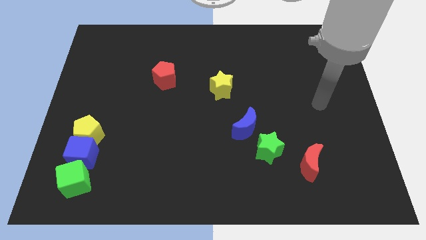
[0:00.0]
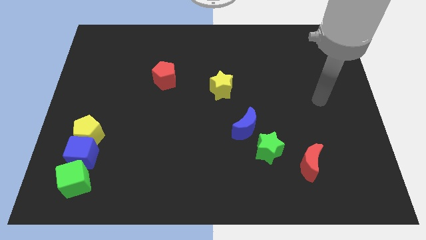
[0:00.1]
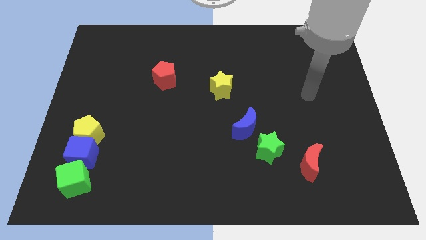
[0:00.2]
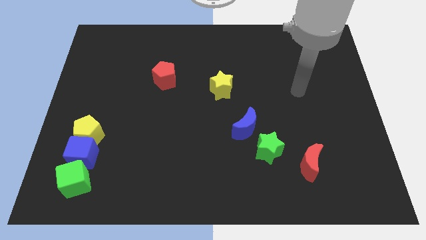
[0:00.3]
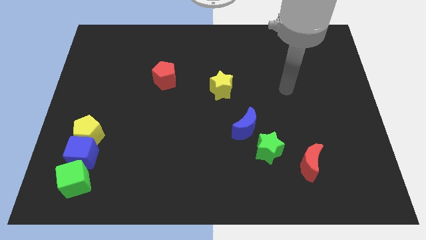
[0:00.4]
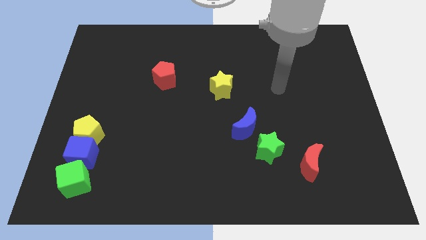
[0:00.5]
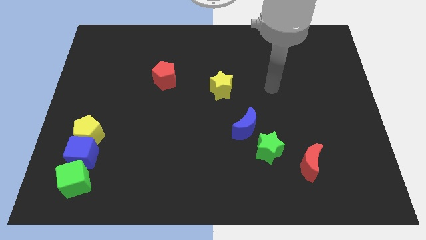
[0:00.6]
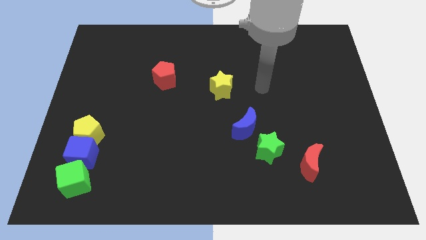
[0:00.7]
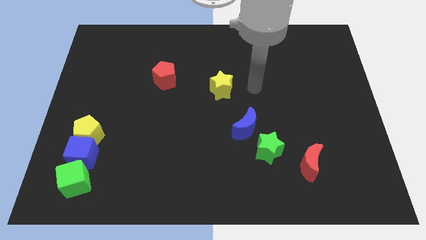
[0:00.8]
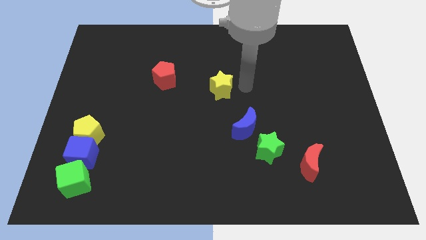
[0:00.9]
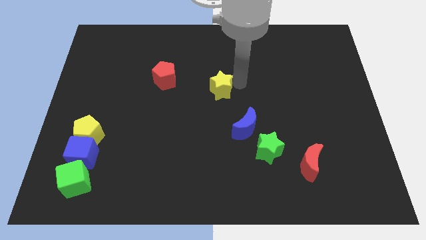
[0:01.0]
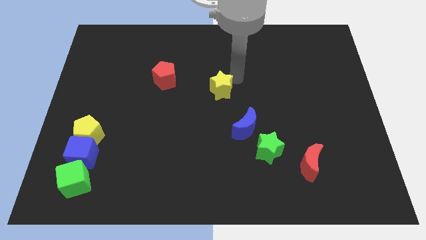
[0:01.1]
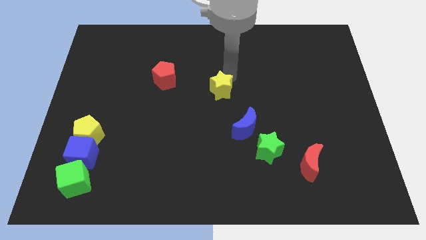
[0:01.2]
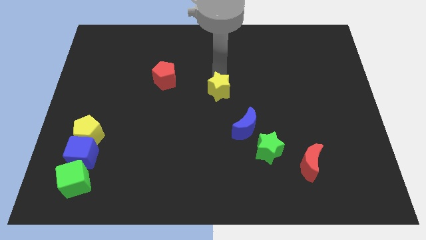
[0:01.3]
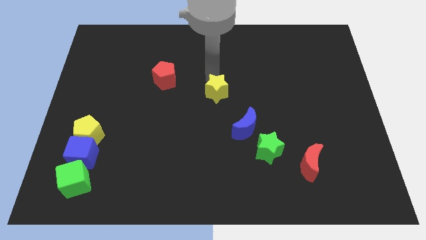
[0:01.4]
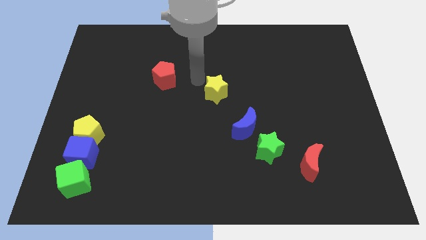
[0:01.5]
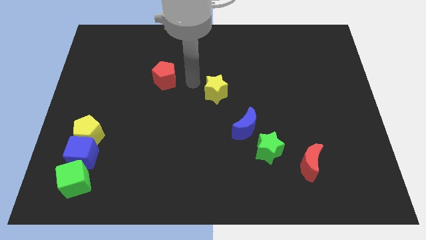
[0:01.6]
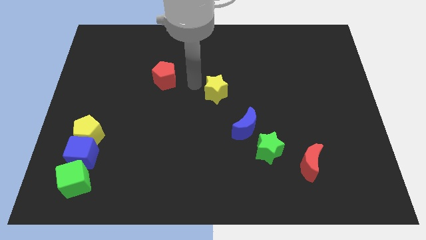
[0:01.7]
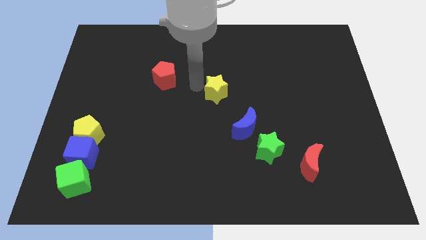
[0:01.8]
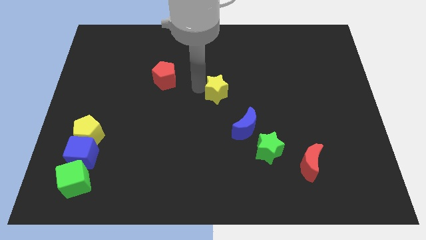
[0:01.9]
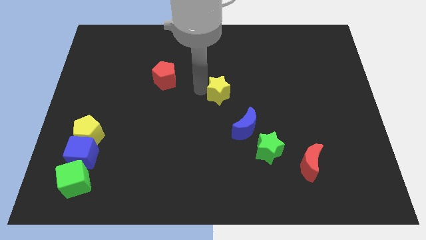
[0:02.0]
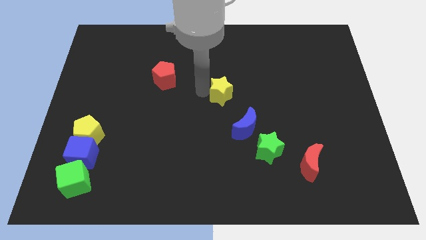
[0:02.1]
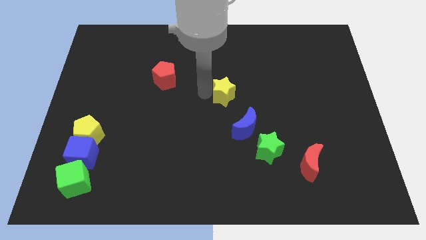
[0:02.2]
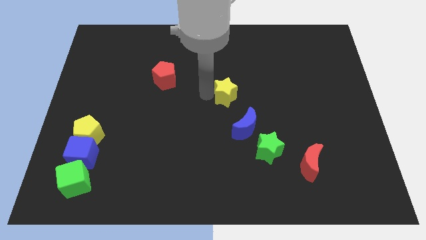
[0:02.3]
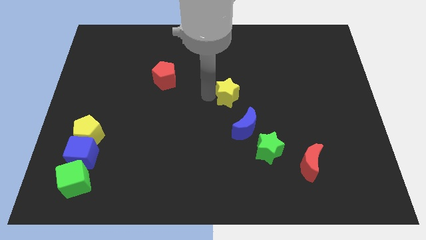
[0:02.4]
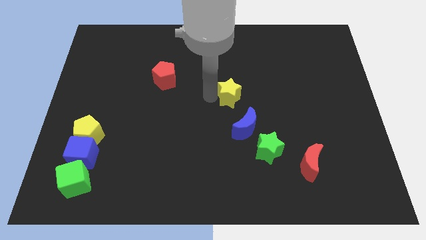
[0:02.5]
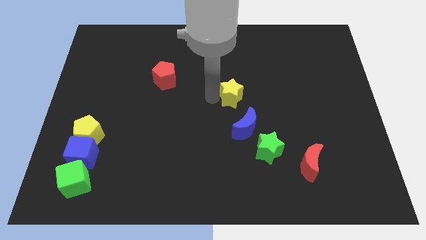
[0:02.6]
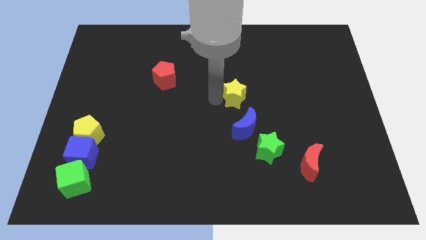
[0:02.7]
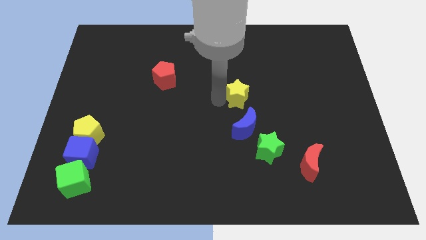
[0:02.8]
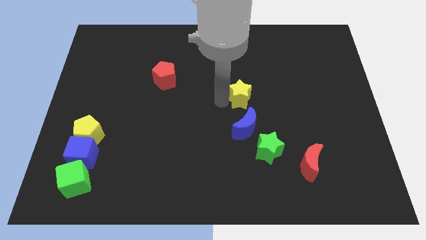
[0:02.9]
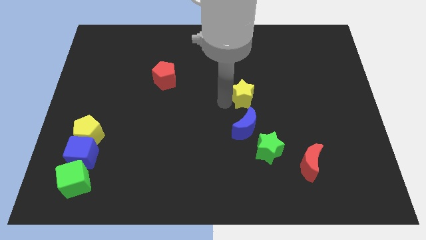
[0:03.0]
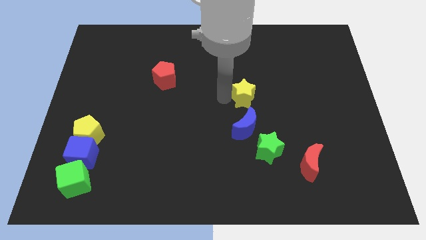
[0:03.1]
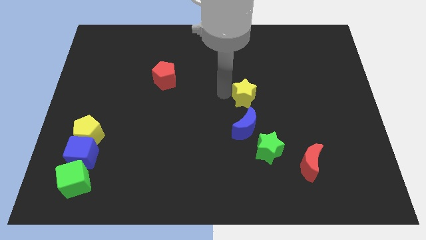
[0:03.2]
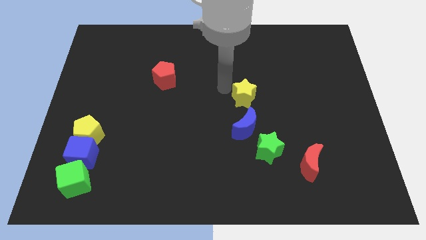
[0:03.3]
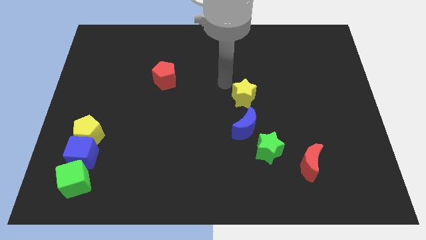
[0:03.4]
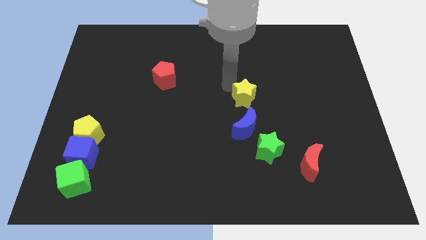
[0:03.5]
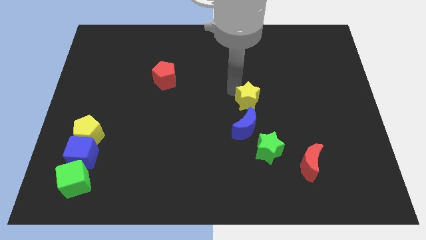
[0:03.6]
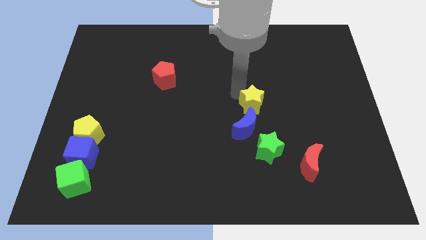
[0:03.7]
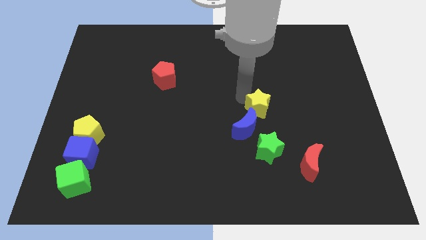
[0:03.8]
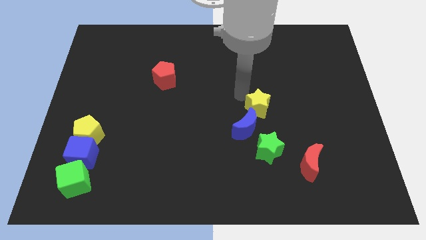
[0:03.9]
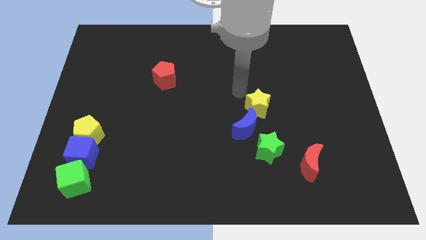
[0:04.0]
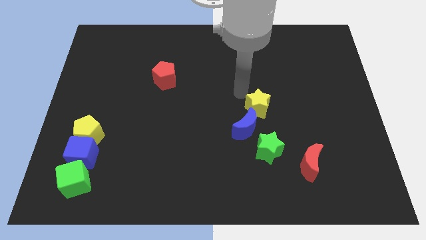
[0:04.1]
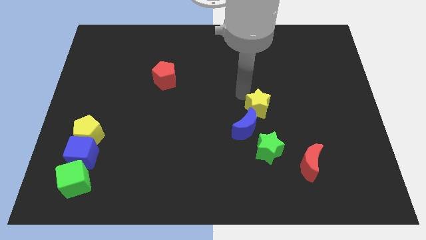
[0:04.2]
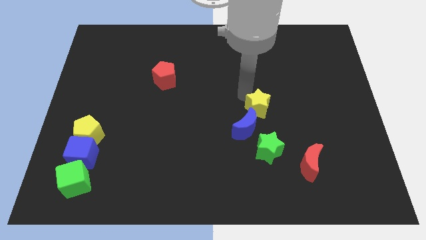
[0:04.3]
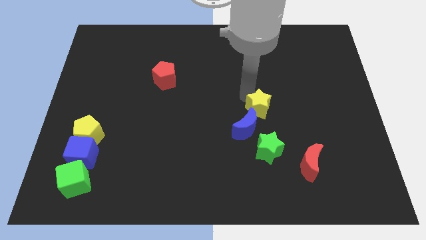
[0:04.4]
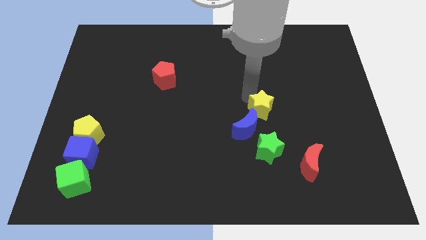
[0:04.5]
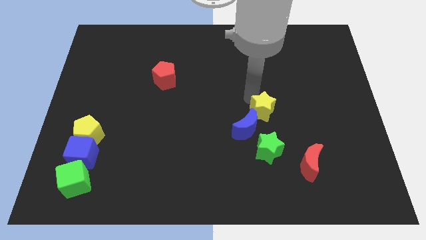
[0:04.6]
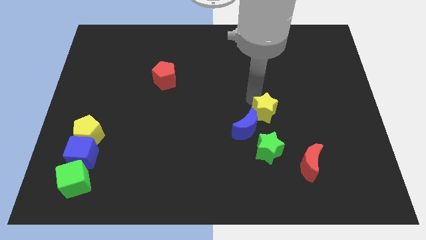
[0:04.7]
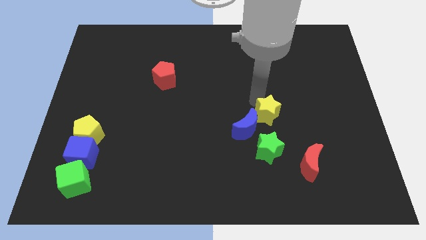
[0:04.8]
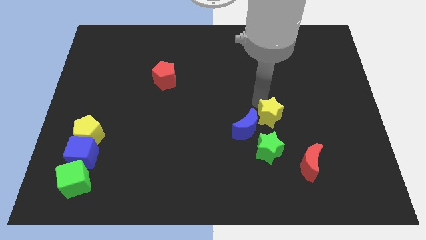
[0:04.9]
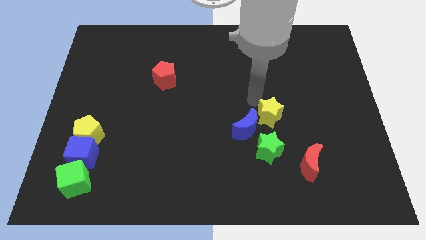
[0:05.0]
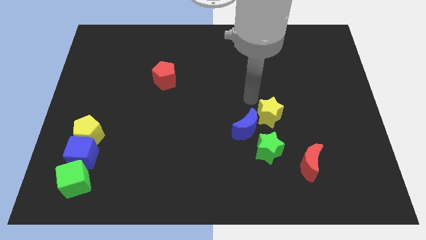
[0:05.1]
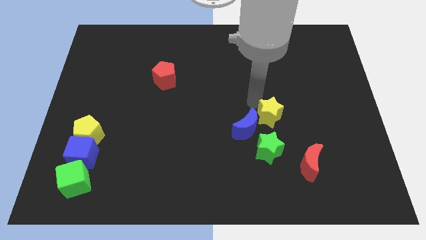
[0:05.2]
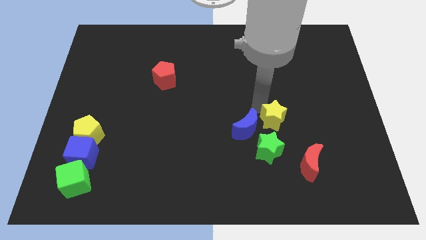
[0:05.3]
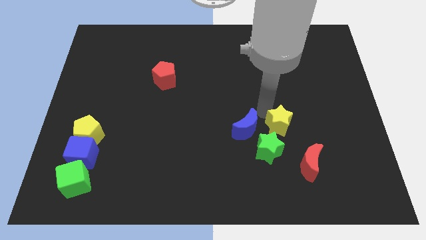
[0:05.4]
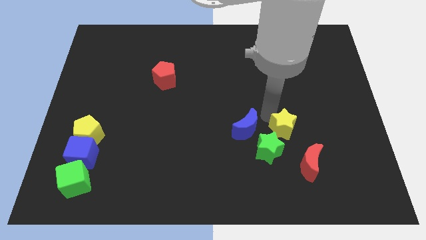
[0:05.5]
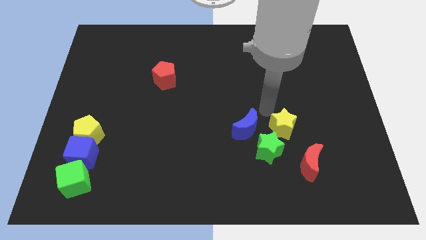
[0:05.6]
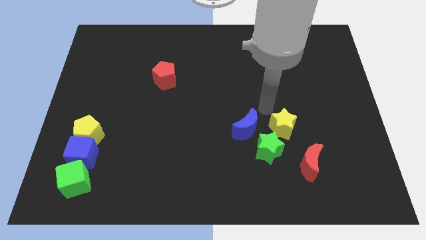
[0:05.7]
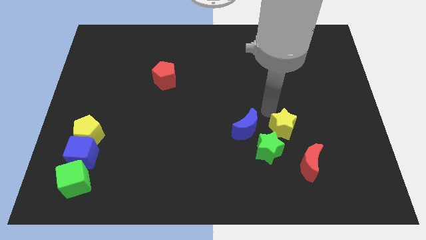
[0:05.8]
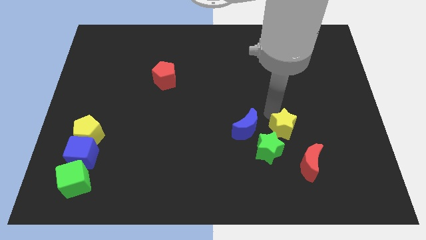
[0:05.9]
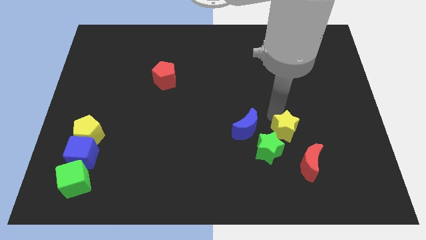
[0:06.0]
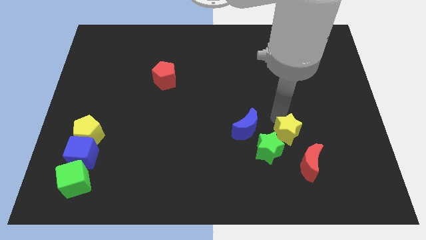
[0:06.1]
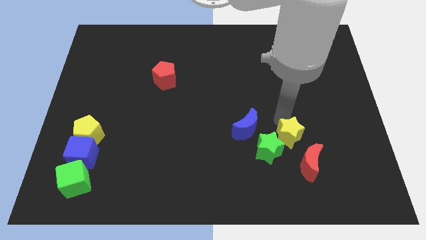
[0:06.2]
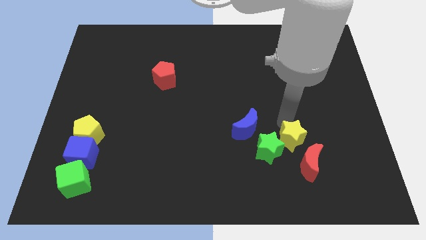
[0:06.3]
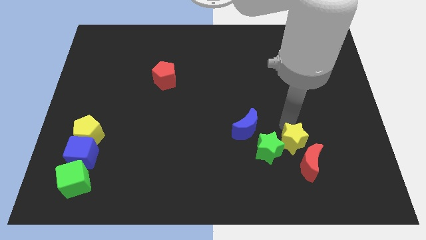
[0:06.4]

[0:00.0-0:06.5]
slide the yellow star to the red moon

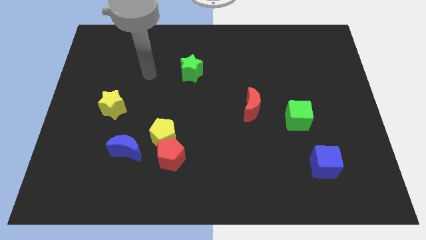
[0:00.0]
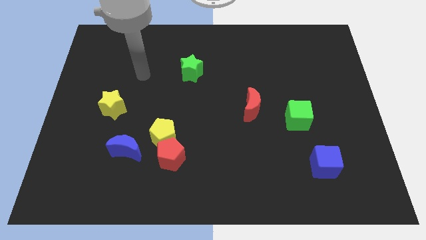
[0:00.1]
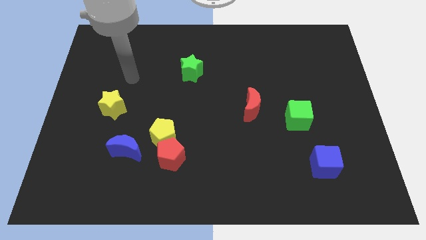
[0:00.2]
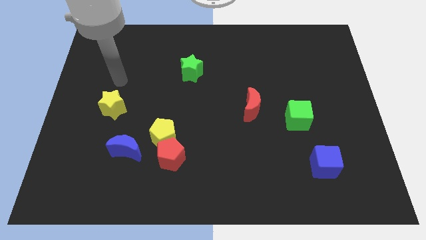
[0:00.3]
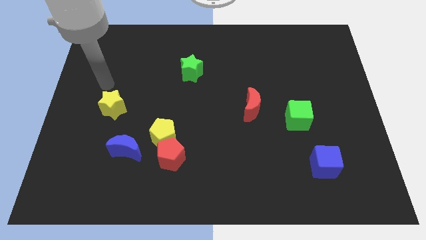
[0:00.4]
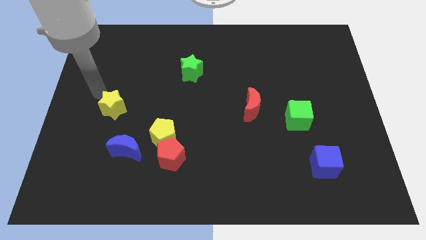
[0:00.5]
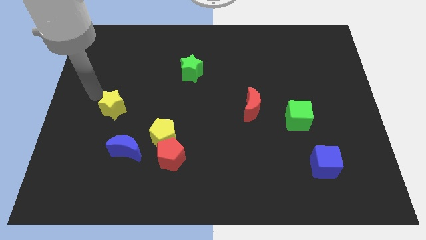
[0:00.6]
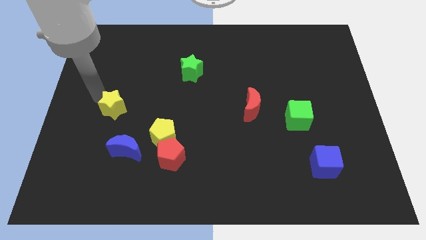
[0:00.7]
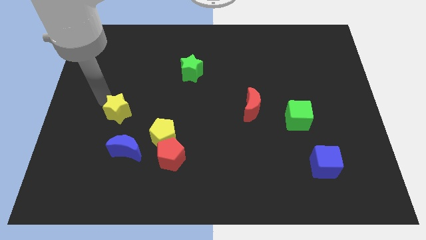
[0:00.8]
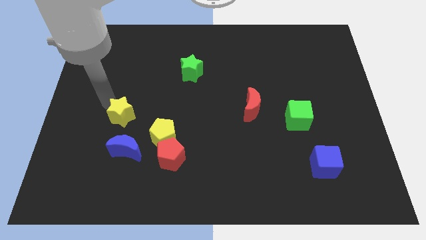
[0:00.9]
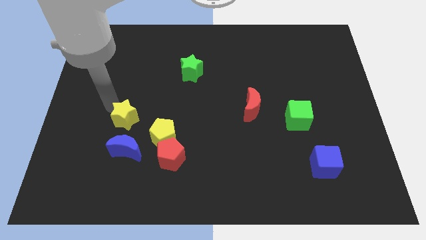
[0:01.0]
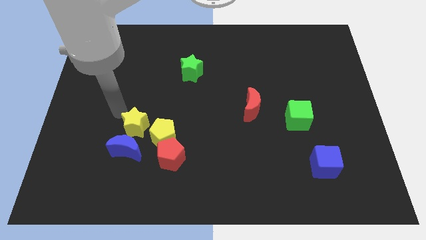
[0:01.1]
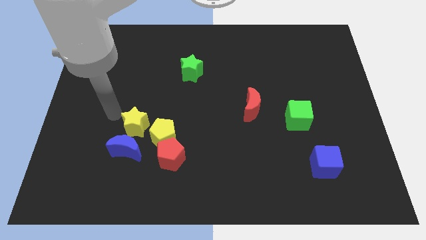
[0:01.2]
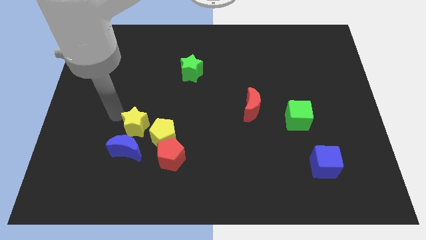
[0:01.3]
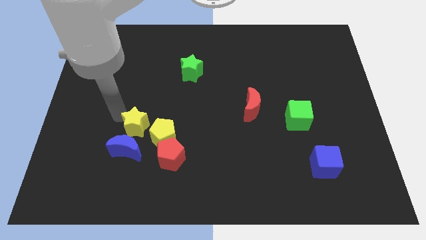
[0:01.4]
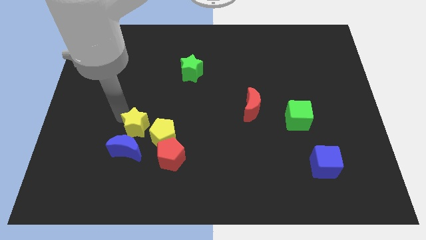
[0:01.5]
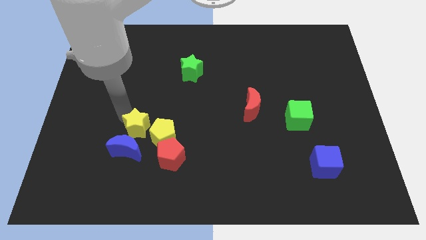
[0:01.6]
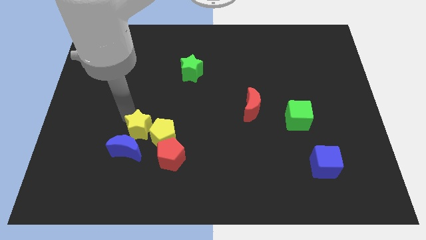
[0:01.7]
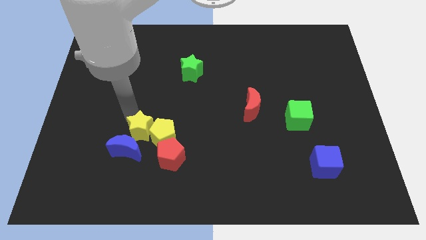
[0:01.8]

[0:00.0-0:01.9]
move the yellow star to the yellow pentagon
